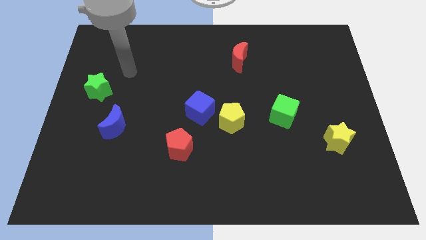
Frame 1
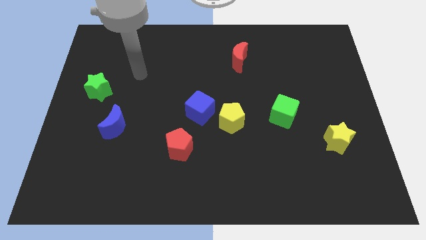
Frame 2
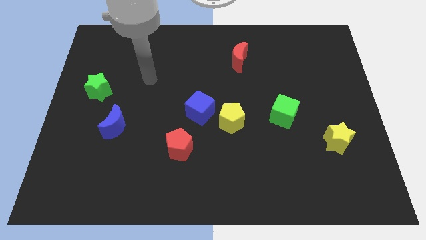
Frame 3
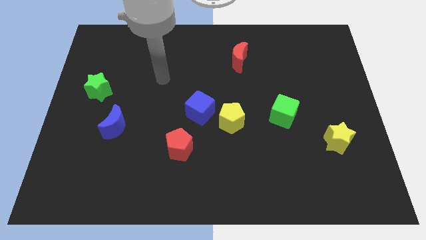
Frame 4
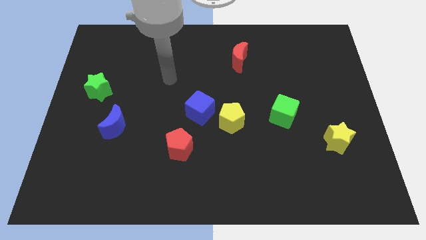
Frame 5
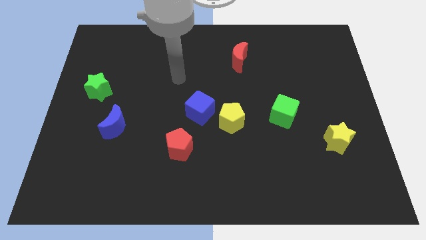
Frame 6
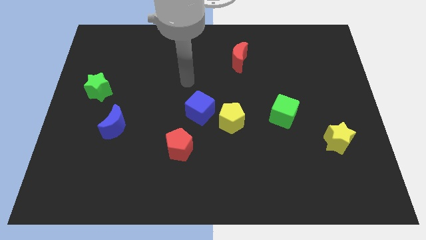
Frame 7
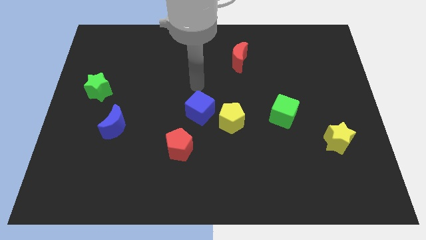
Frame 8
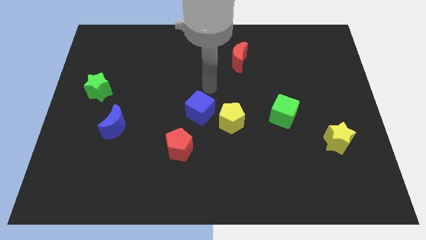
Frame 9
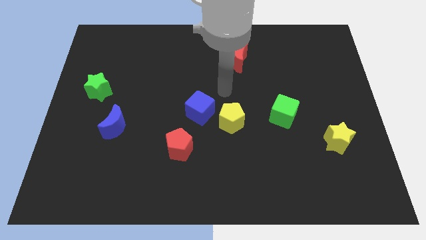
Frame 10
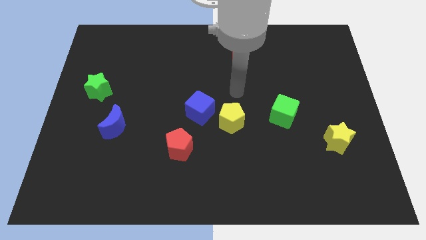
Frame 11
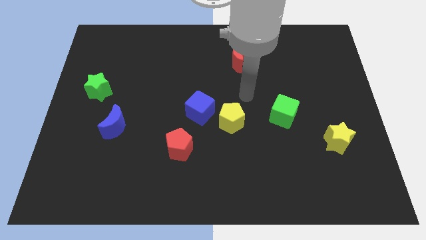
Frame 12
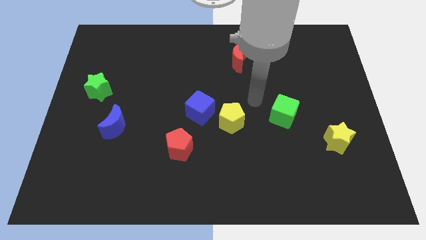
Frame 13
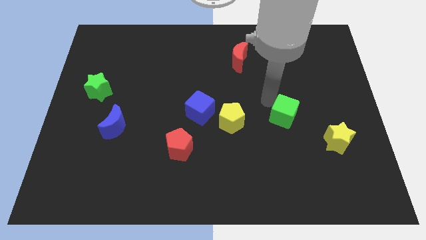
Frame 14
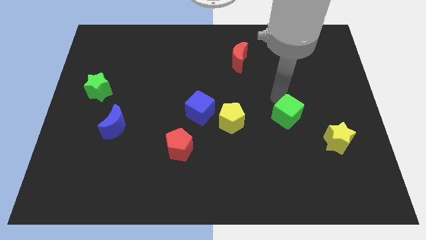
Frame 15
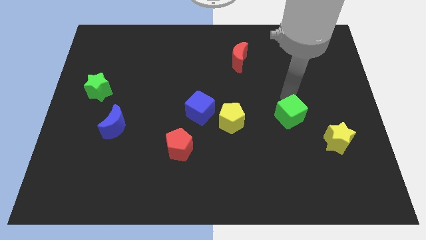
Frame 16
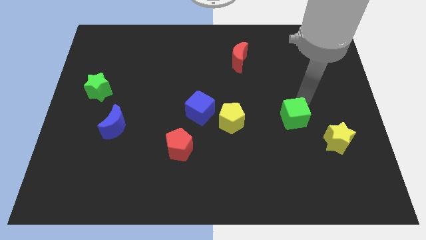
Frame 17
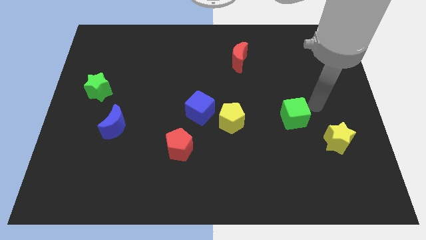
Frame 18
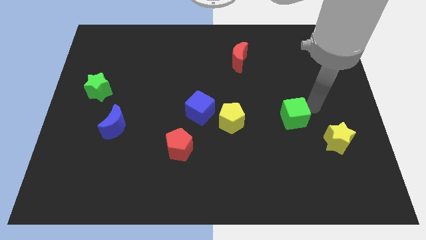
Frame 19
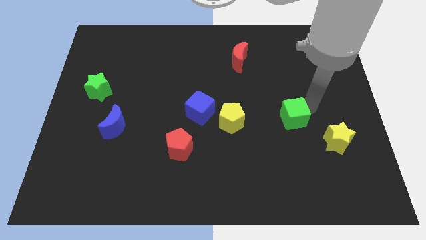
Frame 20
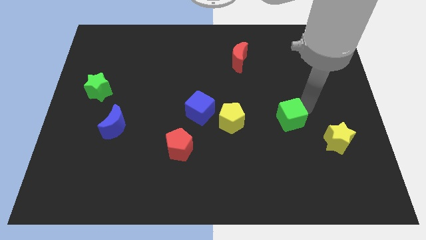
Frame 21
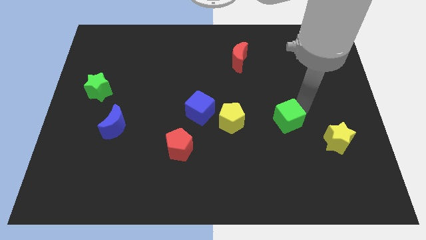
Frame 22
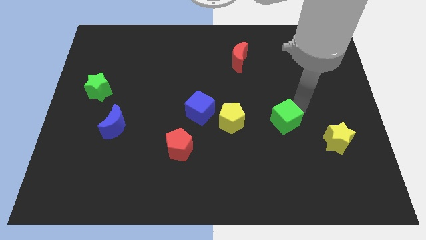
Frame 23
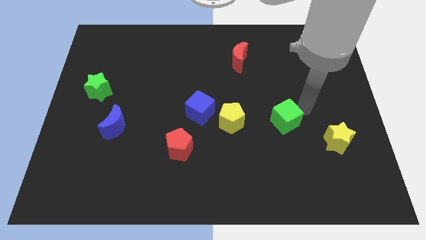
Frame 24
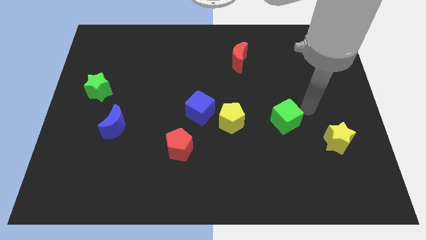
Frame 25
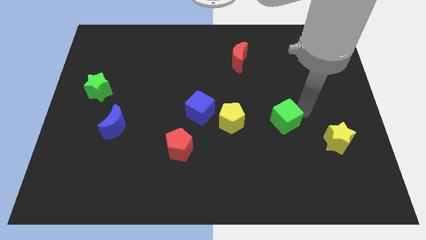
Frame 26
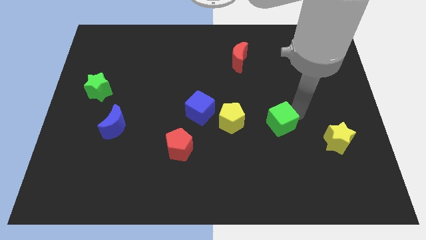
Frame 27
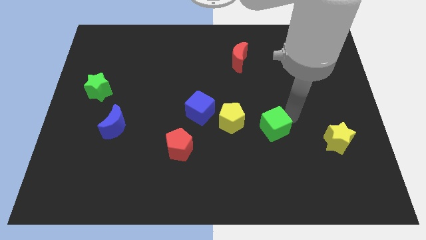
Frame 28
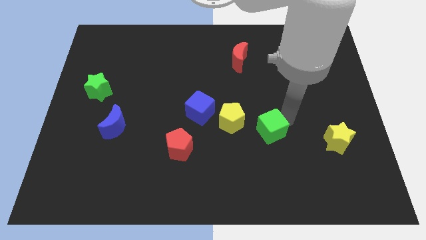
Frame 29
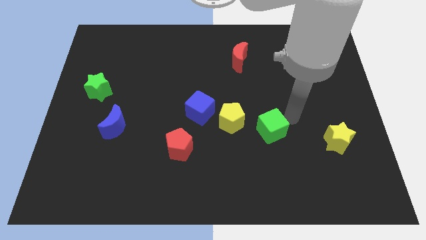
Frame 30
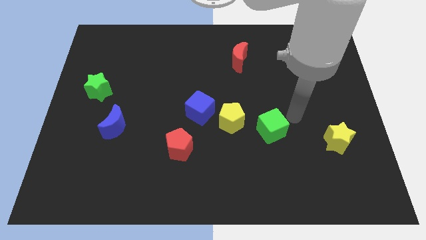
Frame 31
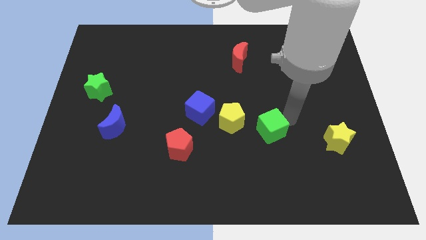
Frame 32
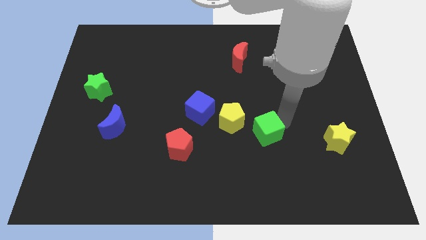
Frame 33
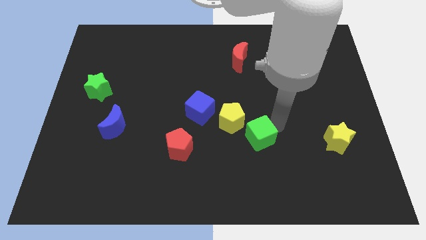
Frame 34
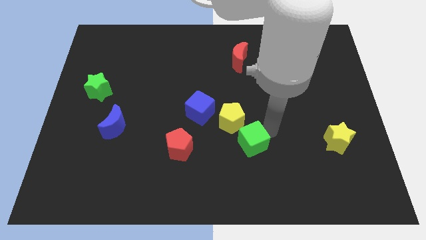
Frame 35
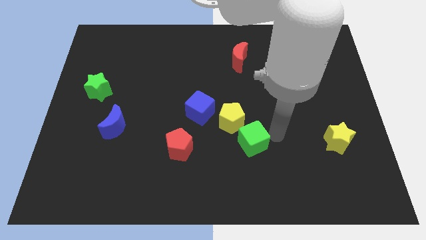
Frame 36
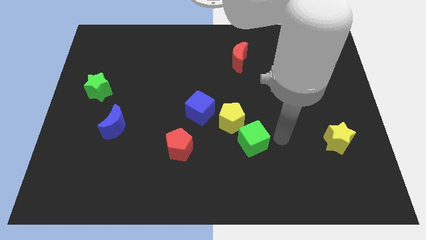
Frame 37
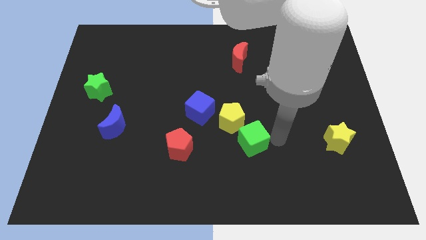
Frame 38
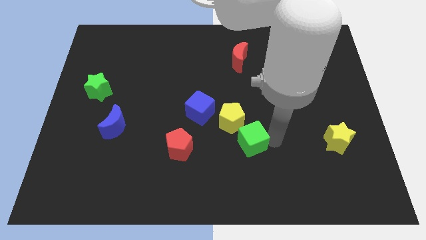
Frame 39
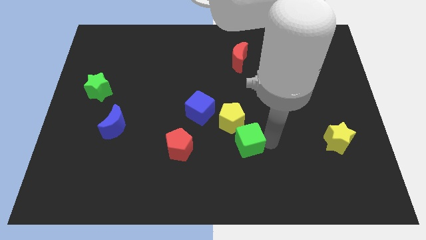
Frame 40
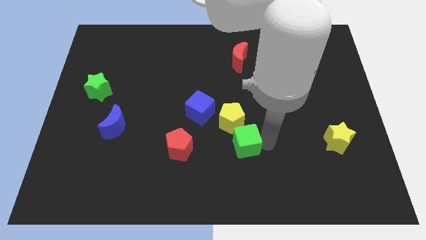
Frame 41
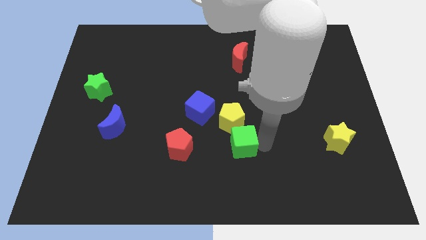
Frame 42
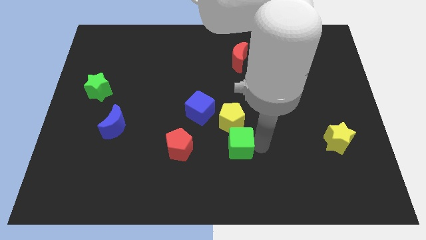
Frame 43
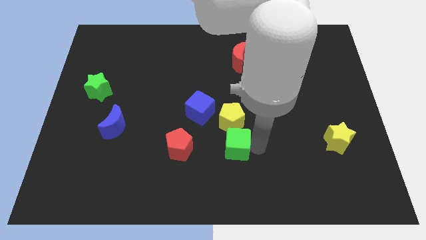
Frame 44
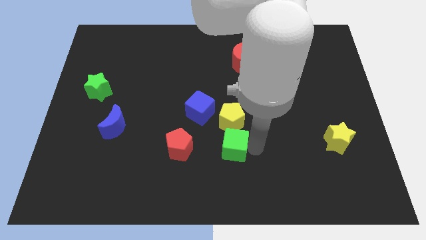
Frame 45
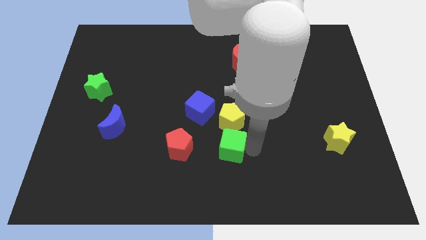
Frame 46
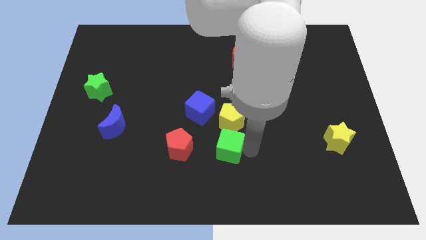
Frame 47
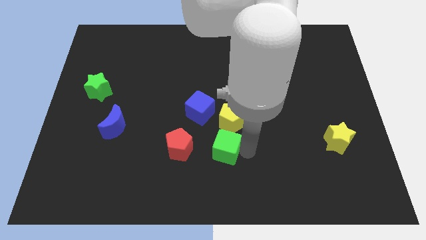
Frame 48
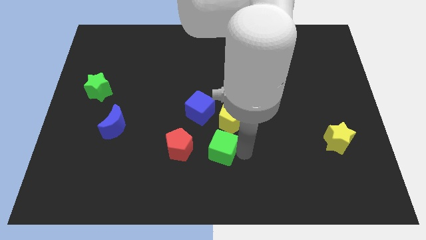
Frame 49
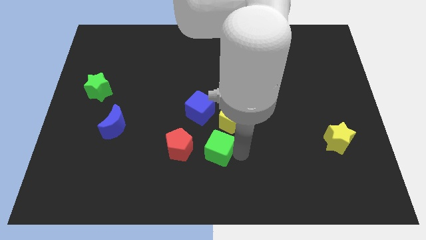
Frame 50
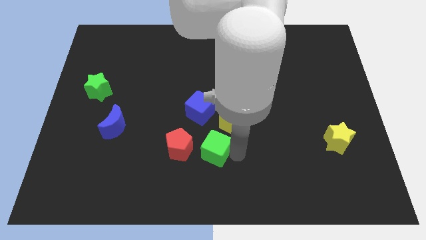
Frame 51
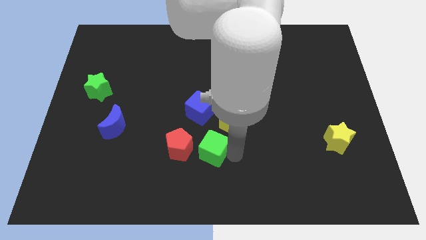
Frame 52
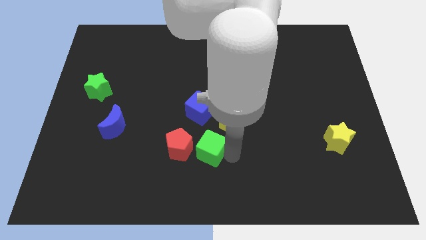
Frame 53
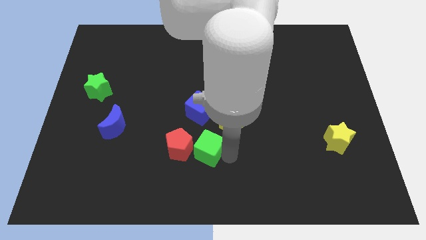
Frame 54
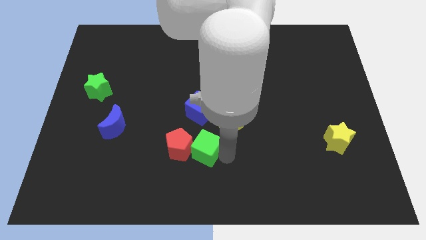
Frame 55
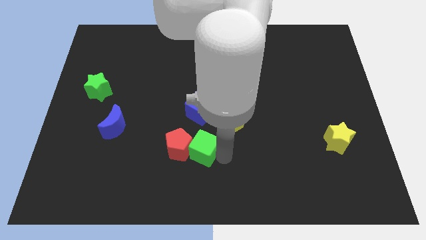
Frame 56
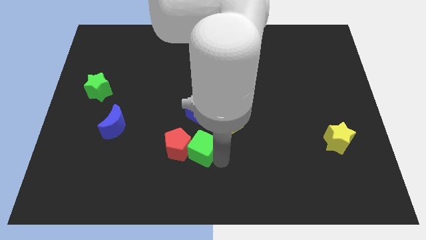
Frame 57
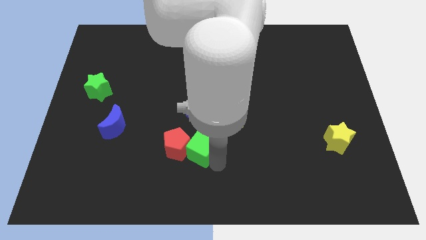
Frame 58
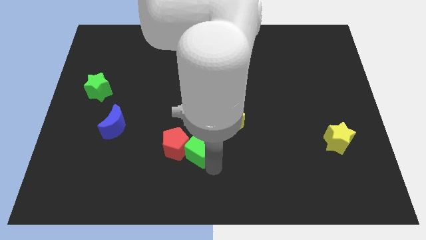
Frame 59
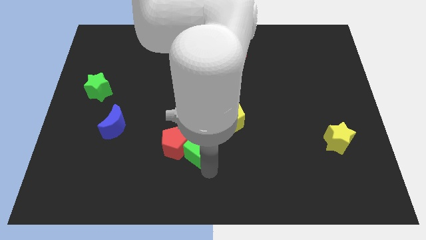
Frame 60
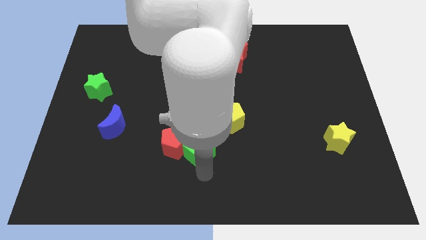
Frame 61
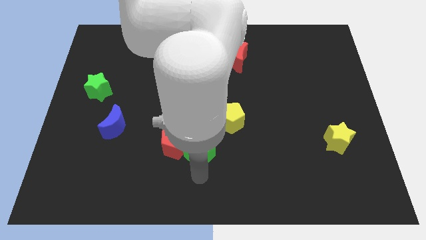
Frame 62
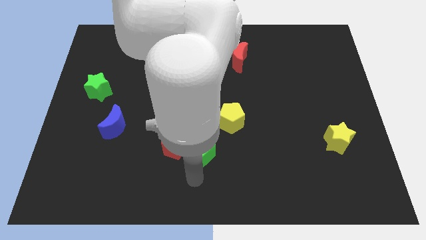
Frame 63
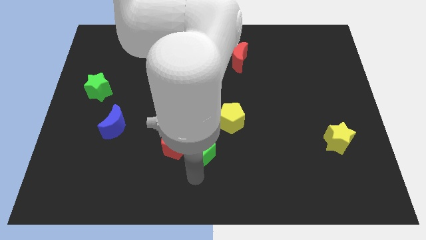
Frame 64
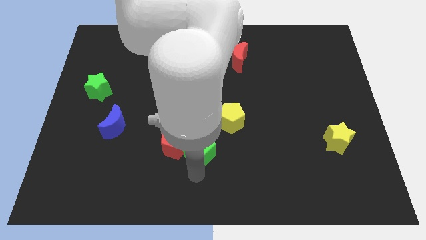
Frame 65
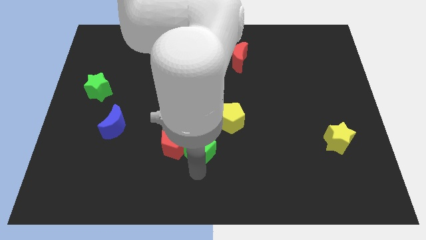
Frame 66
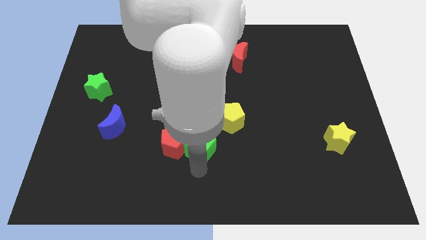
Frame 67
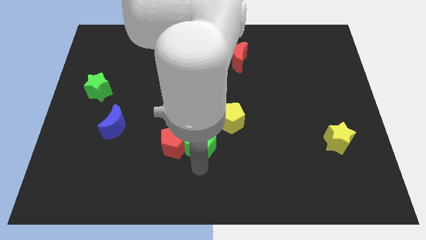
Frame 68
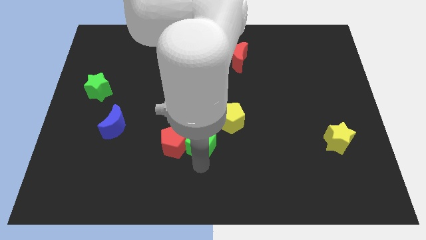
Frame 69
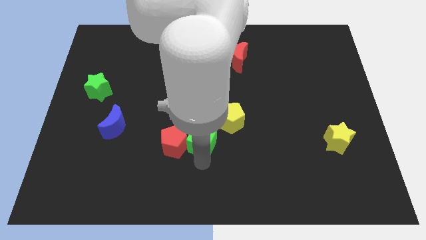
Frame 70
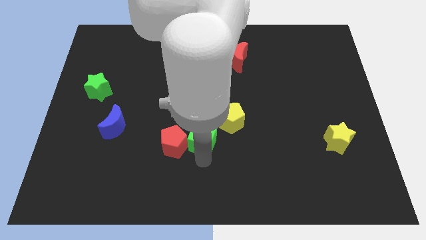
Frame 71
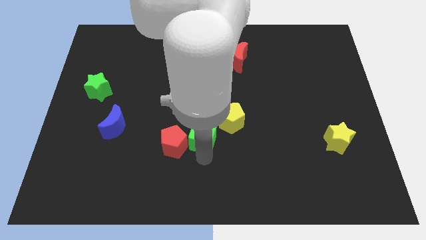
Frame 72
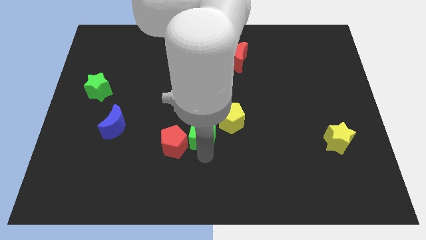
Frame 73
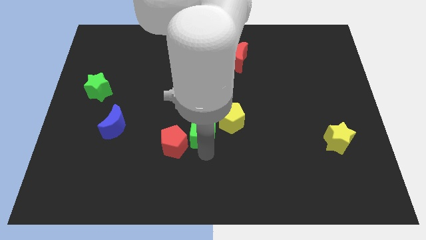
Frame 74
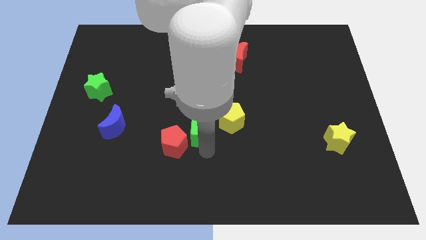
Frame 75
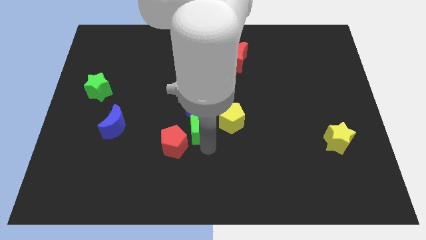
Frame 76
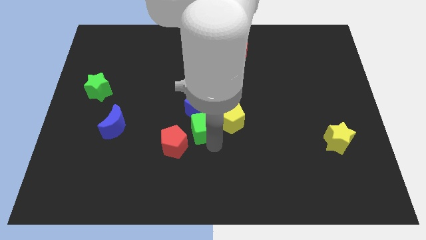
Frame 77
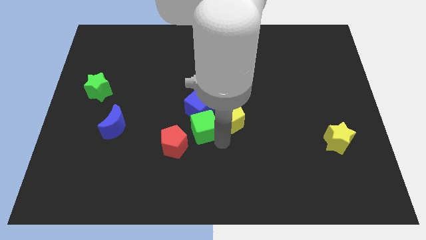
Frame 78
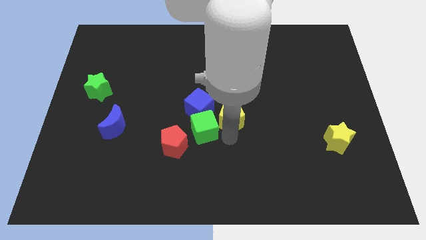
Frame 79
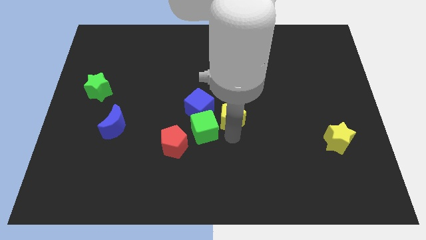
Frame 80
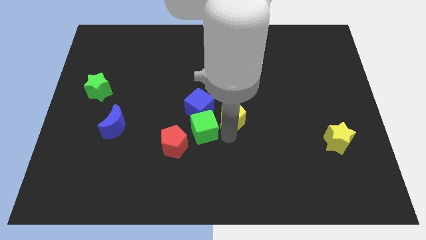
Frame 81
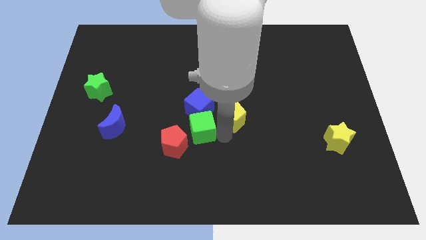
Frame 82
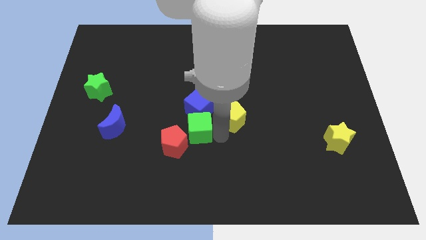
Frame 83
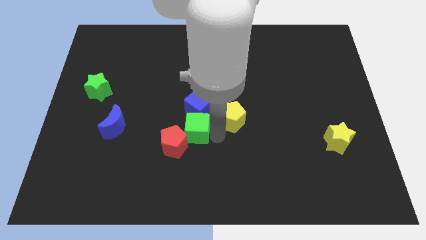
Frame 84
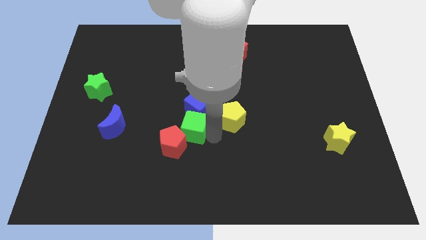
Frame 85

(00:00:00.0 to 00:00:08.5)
push the green cube to the left

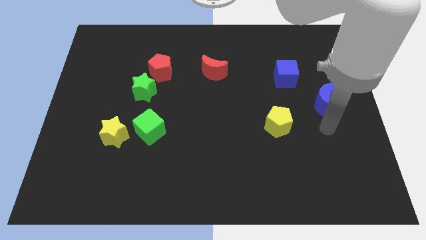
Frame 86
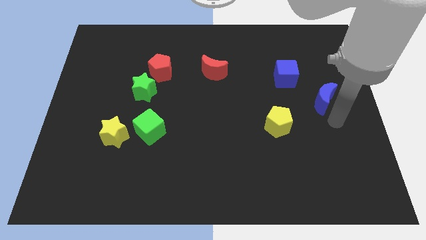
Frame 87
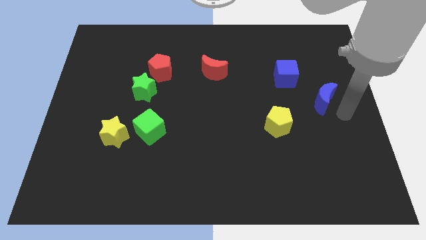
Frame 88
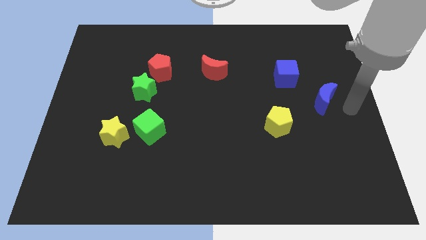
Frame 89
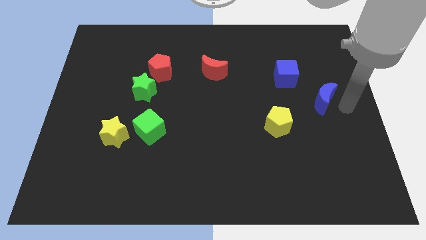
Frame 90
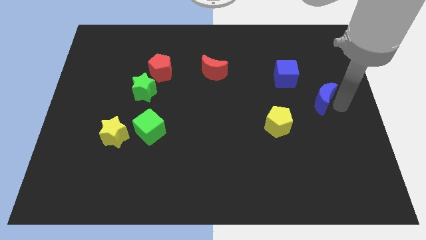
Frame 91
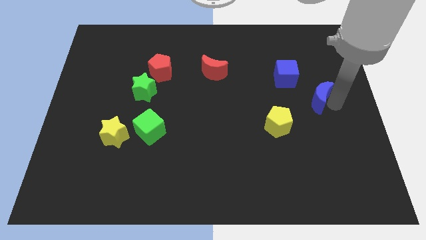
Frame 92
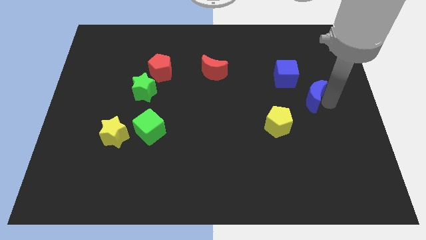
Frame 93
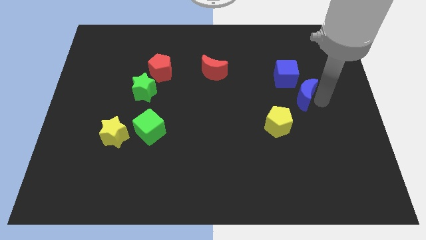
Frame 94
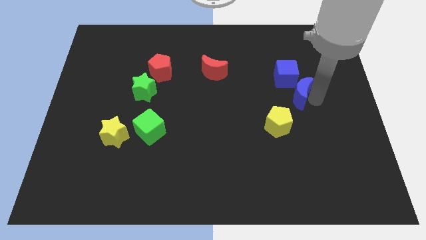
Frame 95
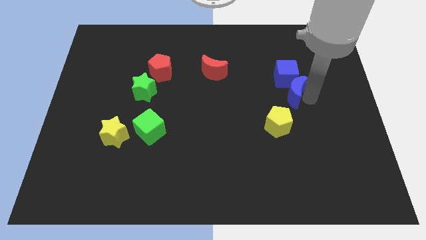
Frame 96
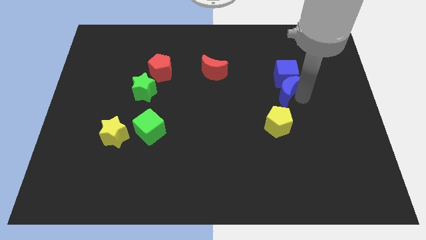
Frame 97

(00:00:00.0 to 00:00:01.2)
slightly slide the blue moon diagonally up and left
